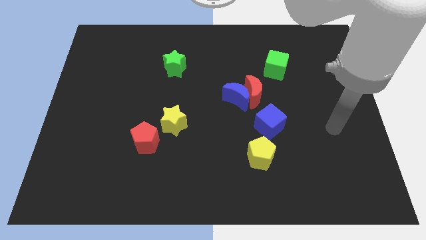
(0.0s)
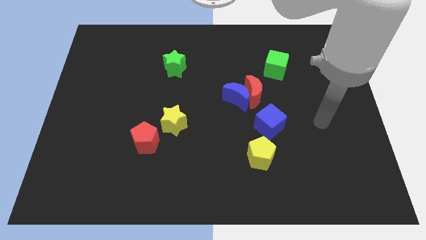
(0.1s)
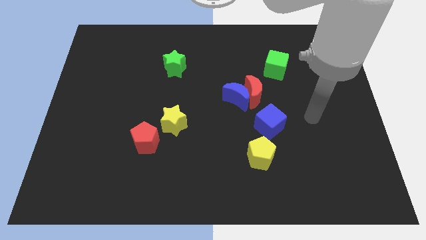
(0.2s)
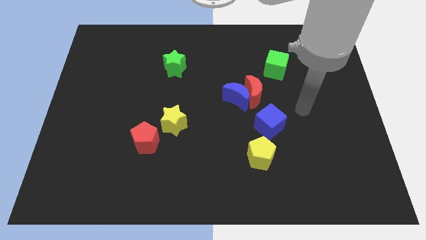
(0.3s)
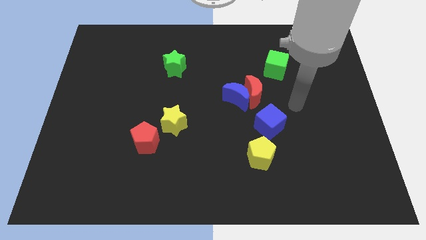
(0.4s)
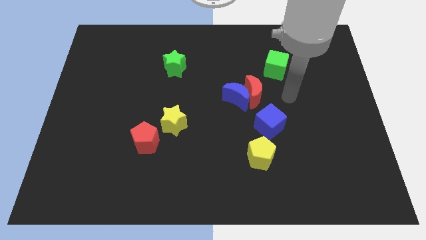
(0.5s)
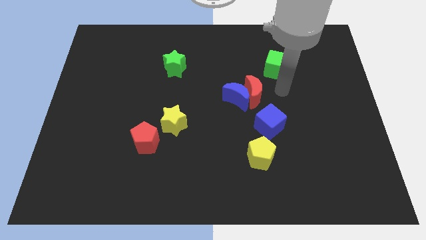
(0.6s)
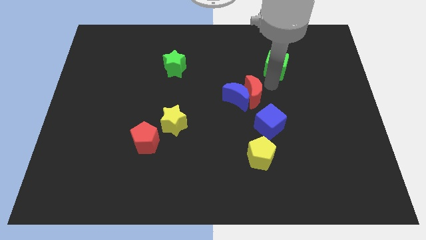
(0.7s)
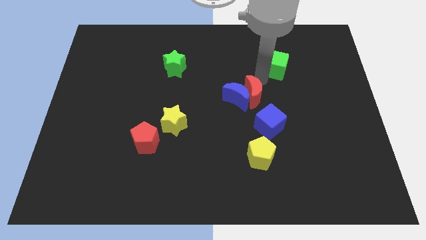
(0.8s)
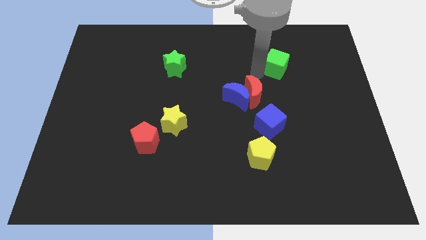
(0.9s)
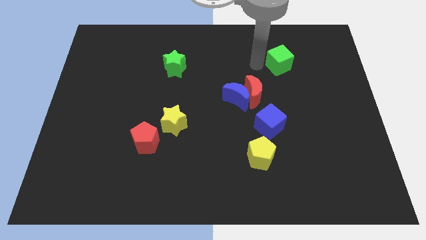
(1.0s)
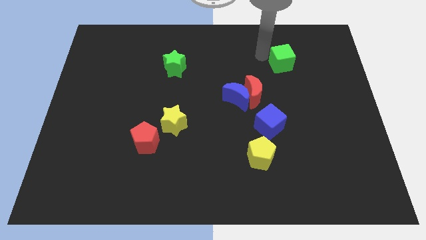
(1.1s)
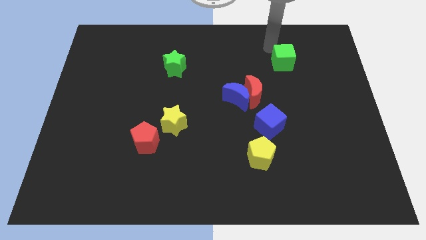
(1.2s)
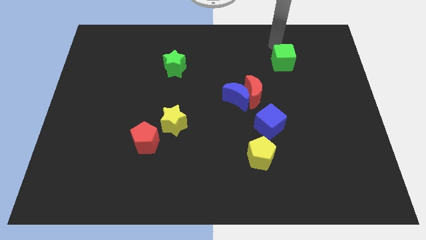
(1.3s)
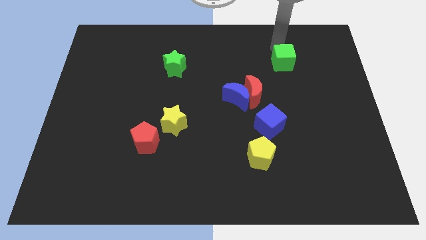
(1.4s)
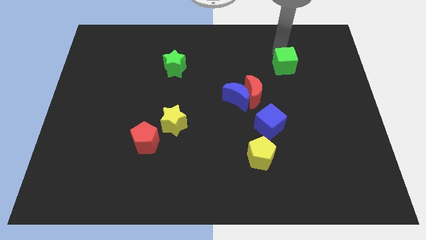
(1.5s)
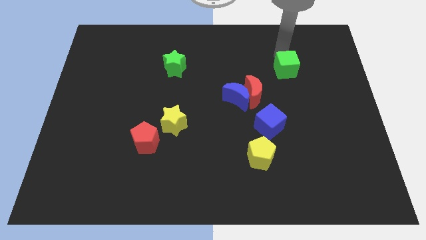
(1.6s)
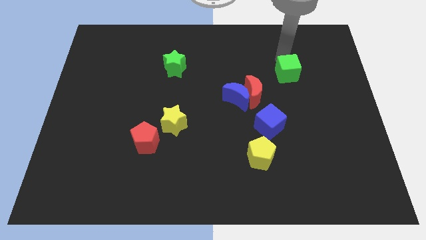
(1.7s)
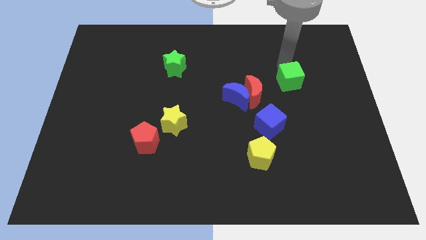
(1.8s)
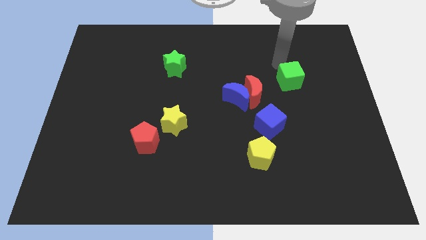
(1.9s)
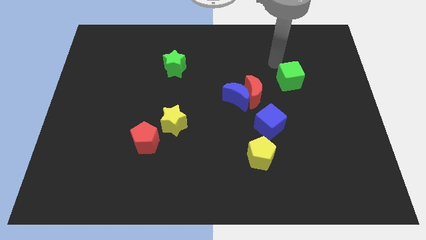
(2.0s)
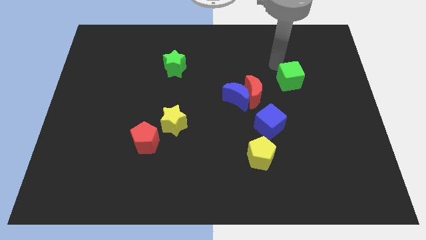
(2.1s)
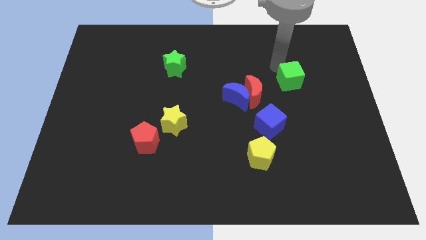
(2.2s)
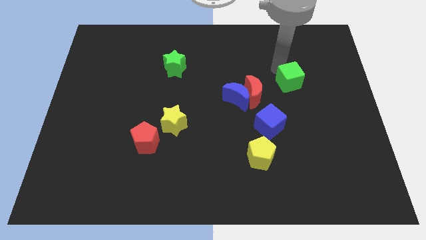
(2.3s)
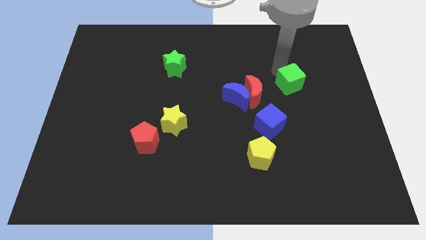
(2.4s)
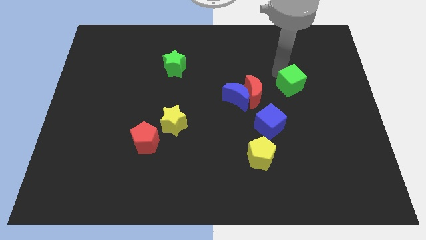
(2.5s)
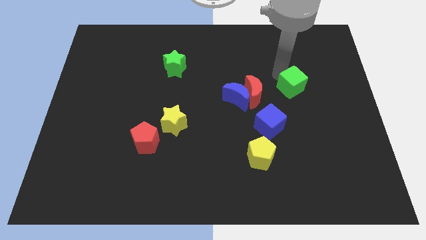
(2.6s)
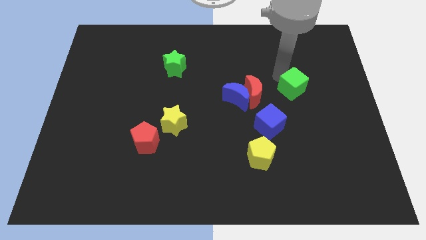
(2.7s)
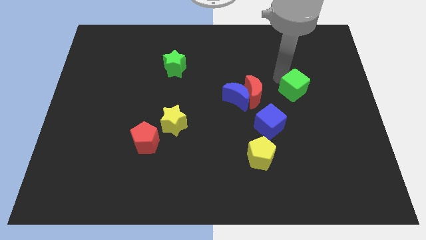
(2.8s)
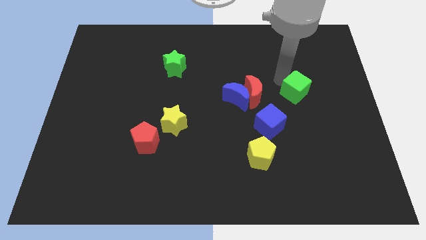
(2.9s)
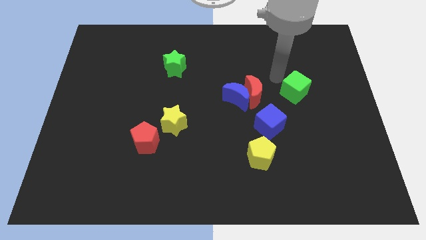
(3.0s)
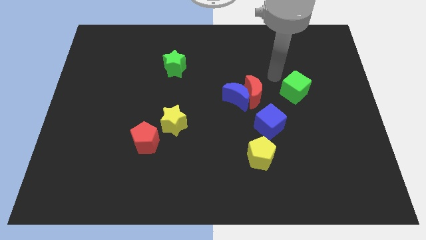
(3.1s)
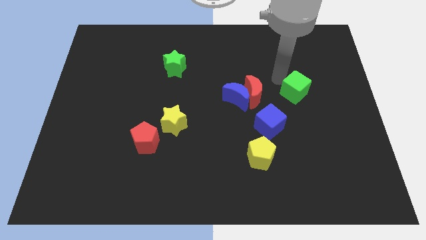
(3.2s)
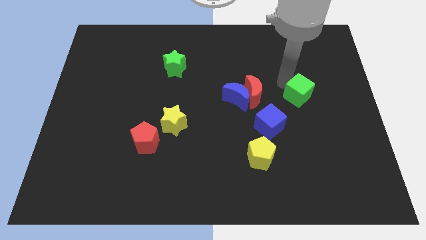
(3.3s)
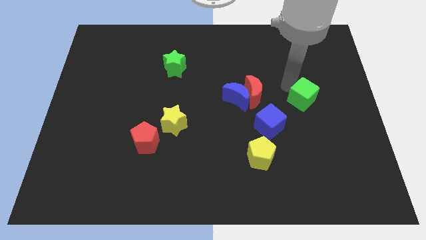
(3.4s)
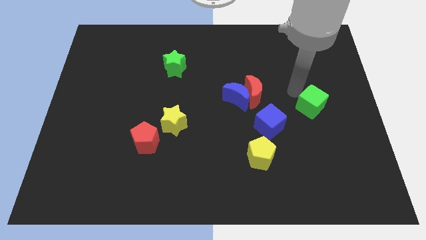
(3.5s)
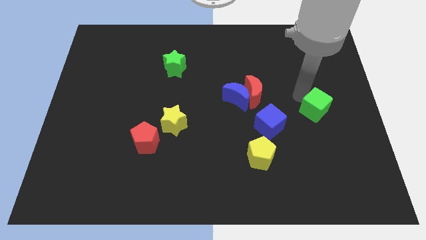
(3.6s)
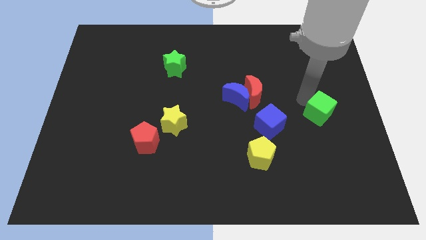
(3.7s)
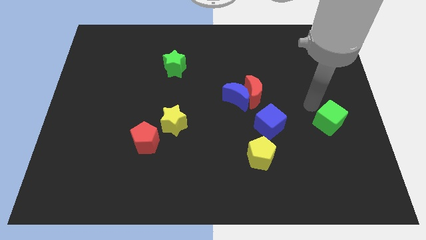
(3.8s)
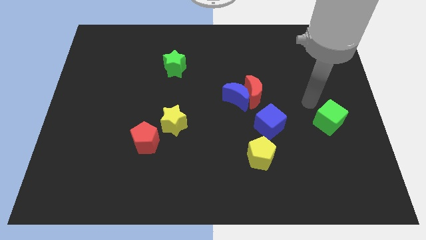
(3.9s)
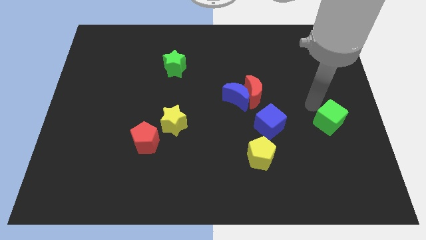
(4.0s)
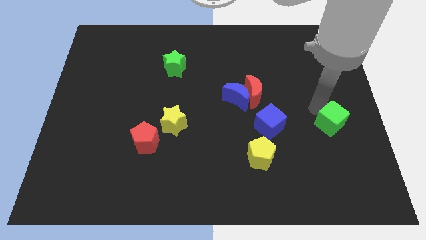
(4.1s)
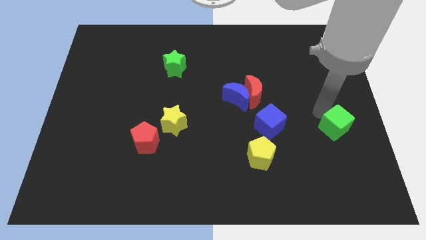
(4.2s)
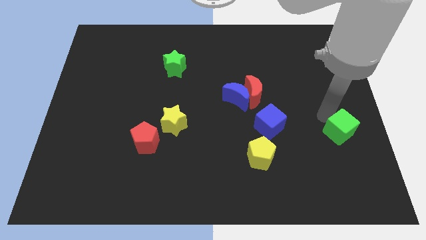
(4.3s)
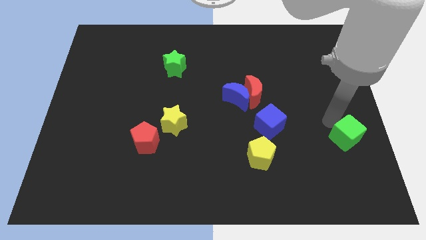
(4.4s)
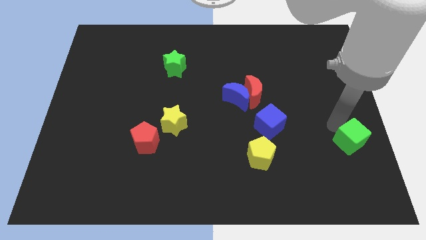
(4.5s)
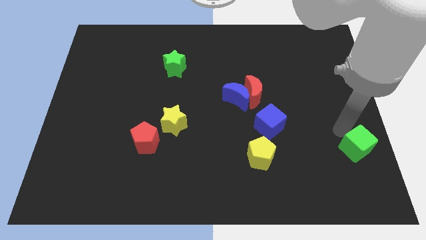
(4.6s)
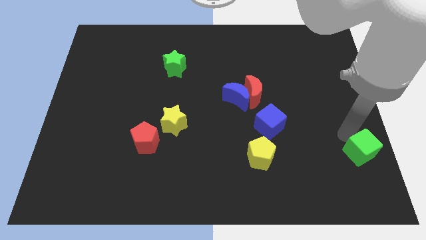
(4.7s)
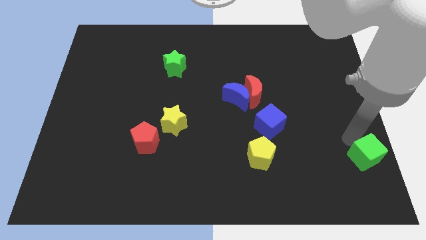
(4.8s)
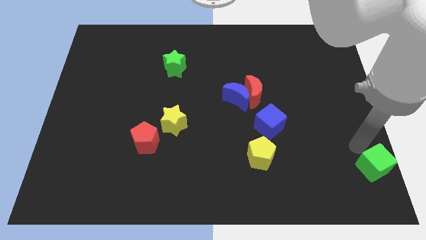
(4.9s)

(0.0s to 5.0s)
push the green cube to the bottom right corner
